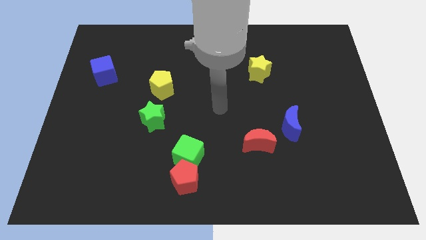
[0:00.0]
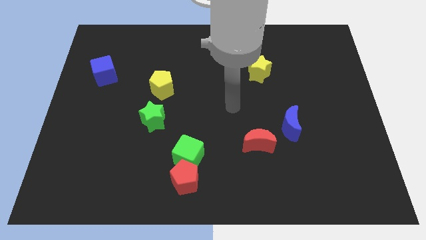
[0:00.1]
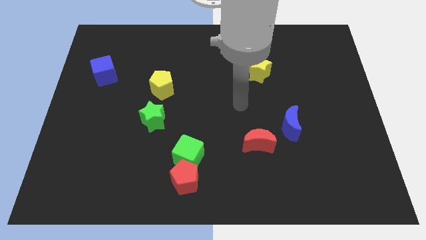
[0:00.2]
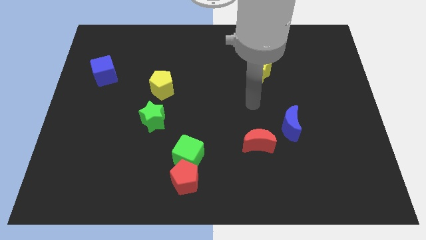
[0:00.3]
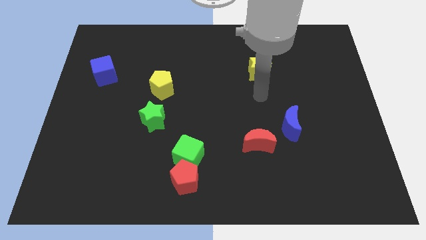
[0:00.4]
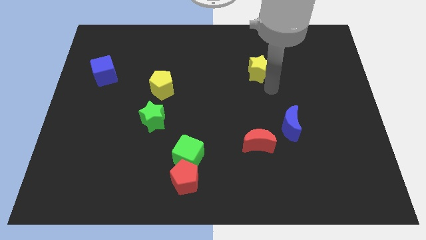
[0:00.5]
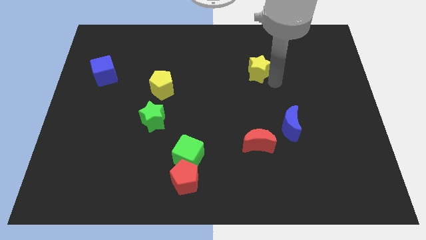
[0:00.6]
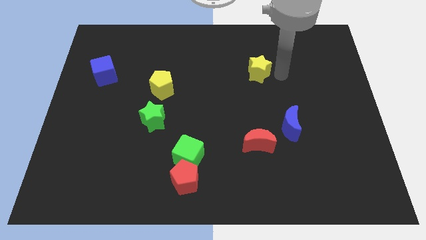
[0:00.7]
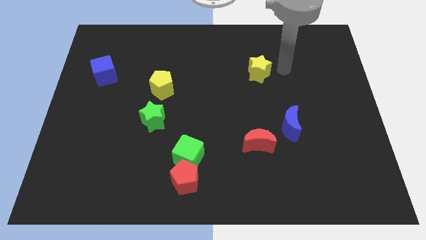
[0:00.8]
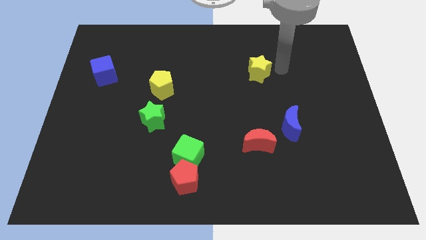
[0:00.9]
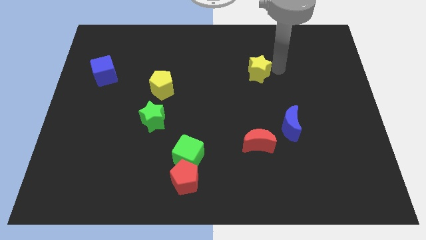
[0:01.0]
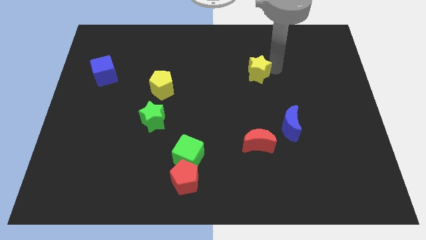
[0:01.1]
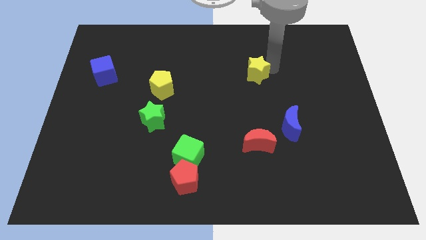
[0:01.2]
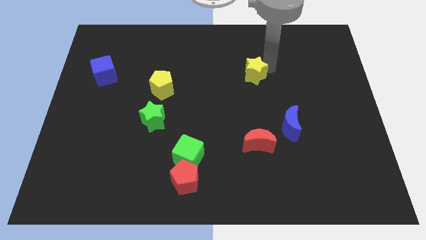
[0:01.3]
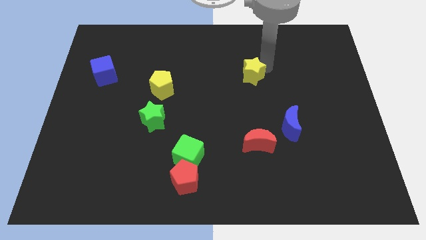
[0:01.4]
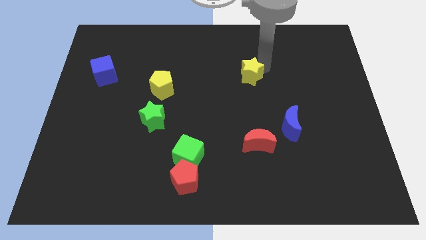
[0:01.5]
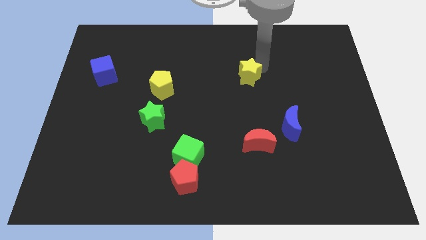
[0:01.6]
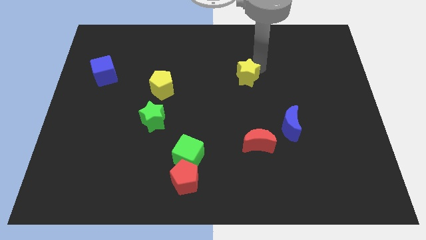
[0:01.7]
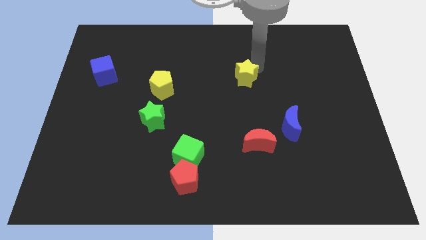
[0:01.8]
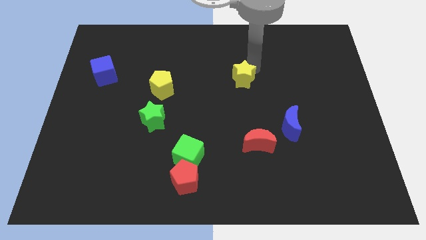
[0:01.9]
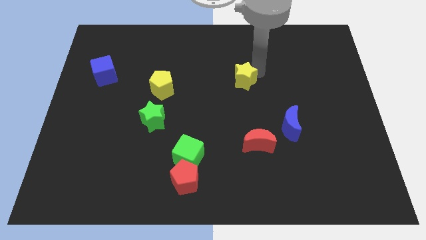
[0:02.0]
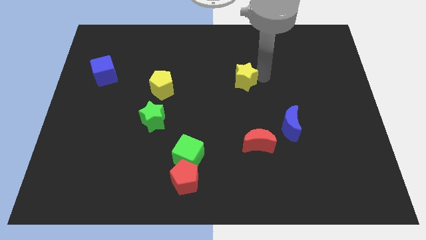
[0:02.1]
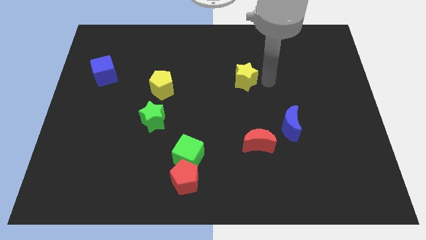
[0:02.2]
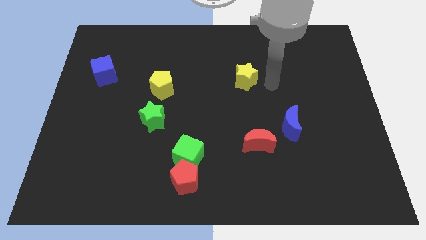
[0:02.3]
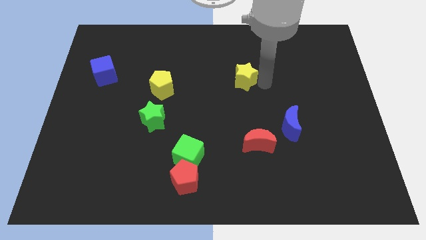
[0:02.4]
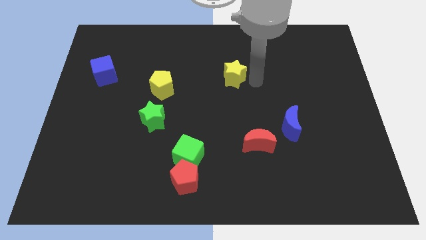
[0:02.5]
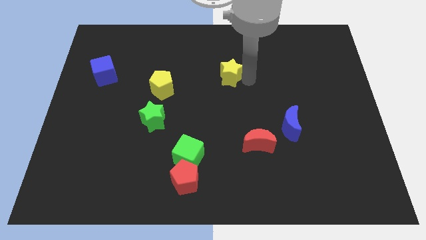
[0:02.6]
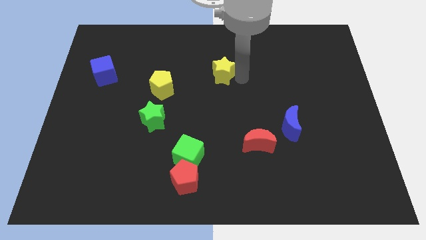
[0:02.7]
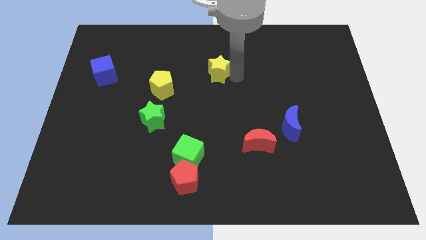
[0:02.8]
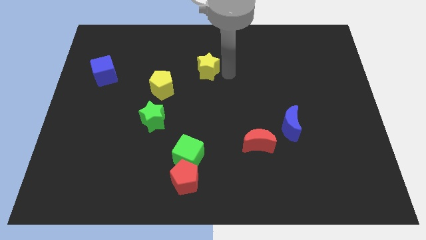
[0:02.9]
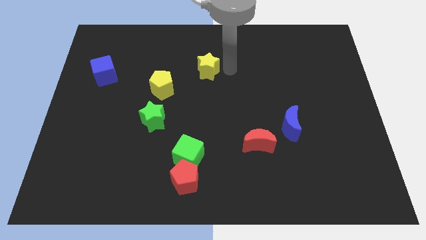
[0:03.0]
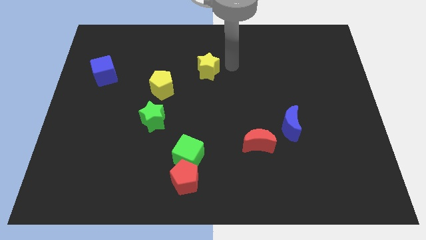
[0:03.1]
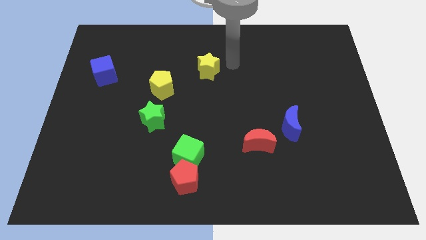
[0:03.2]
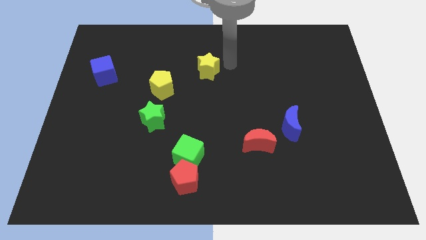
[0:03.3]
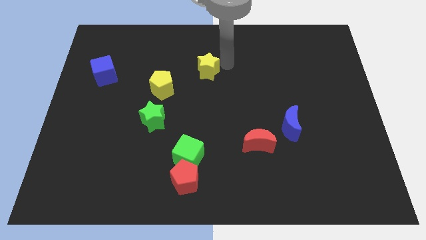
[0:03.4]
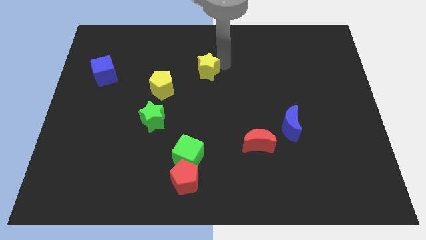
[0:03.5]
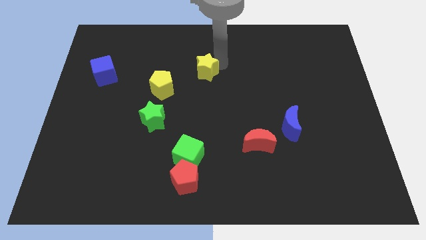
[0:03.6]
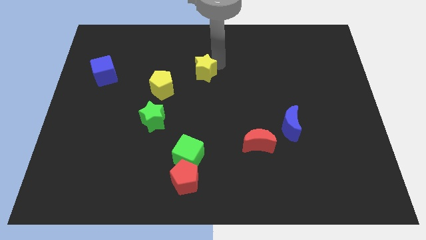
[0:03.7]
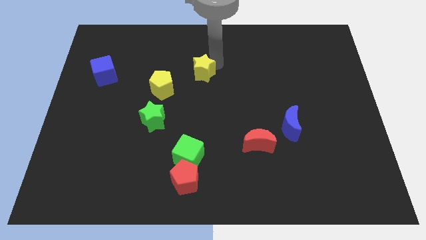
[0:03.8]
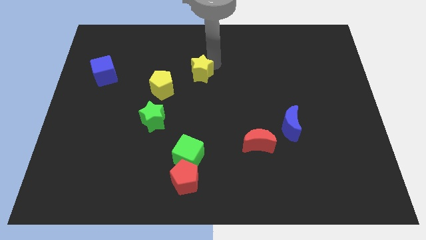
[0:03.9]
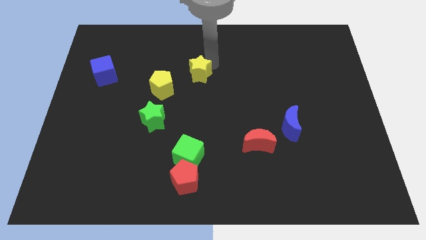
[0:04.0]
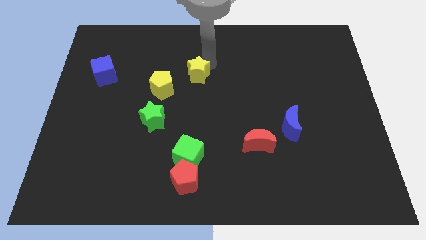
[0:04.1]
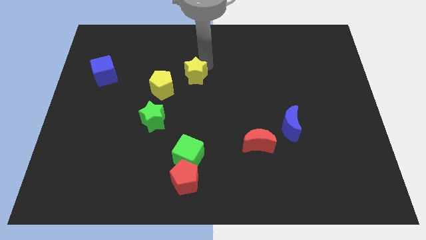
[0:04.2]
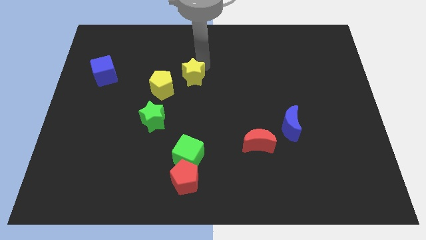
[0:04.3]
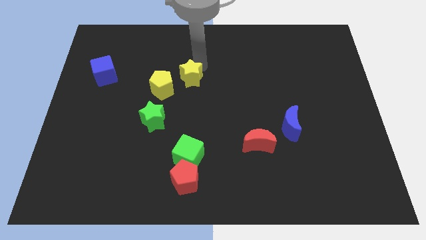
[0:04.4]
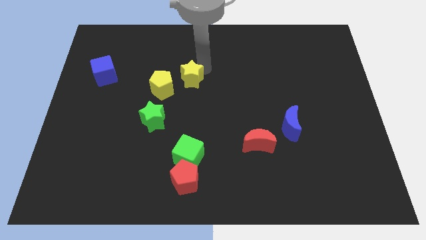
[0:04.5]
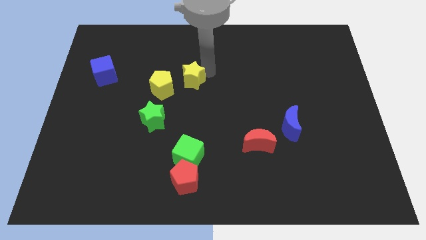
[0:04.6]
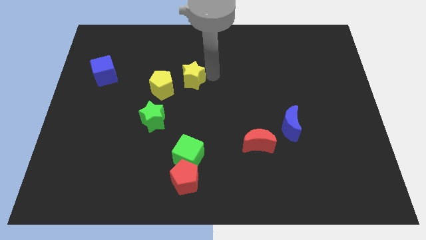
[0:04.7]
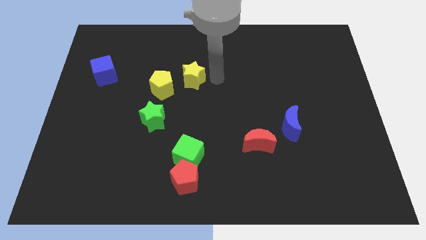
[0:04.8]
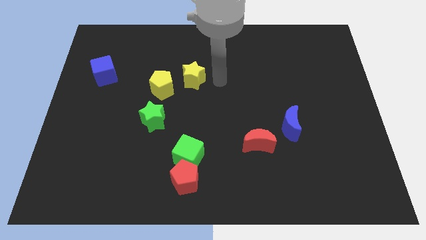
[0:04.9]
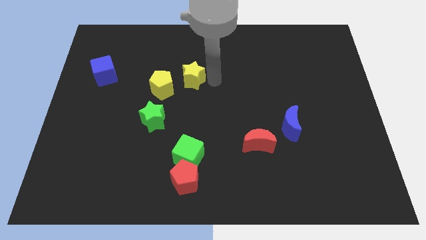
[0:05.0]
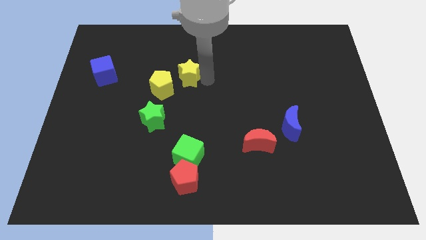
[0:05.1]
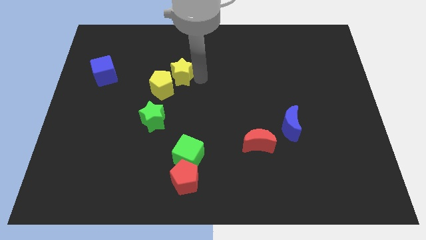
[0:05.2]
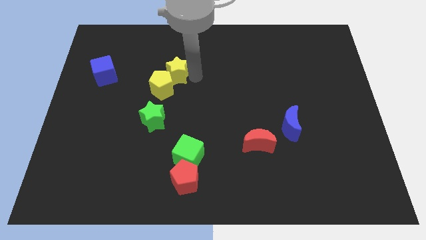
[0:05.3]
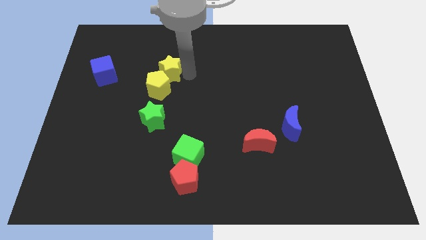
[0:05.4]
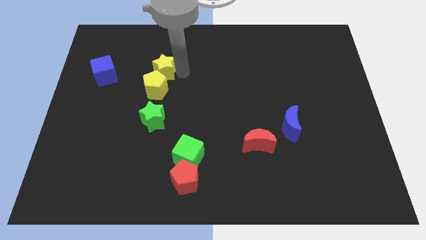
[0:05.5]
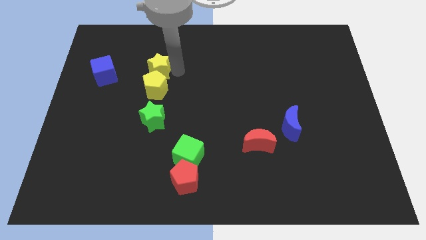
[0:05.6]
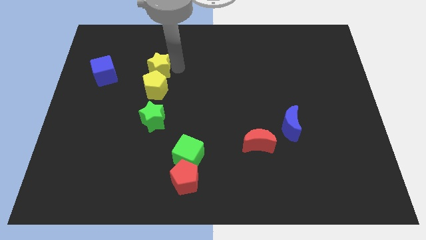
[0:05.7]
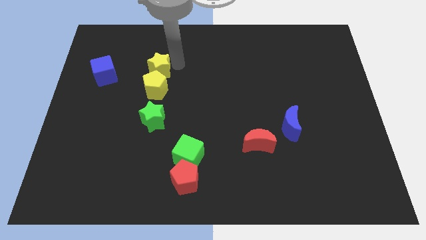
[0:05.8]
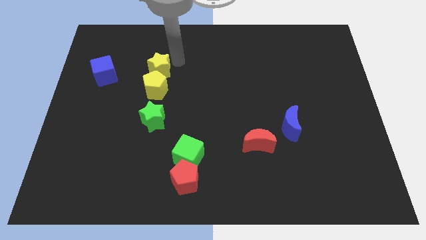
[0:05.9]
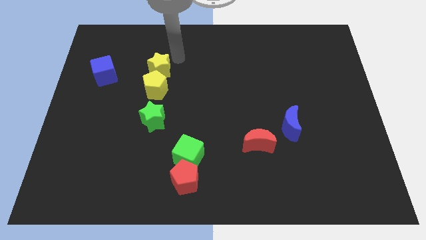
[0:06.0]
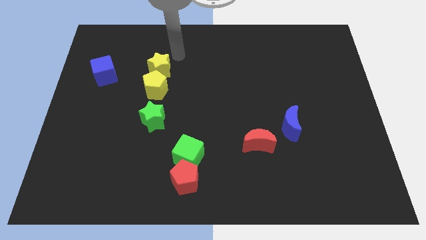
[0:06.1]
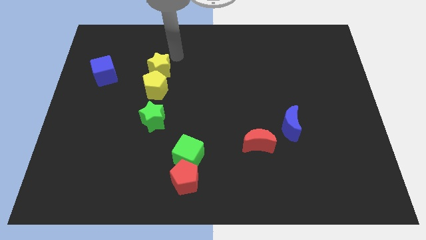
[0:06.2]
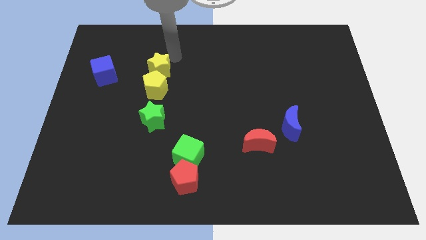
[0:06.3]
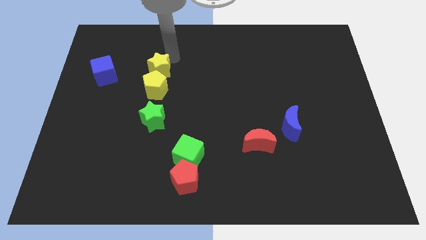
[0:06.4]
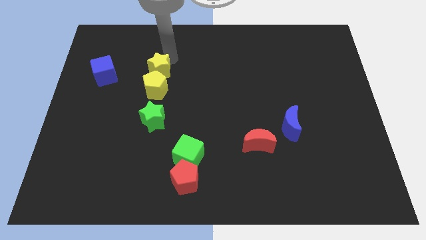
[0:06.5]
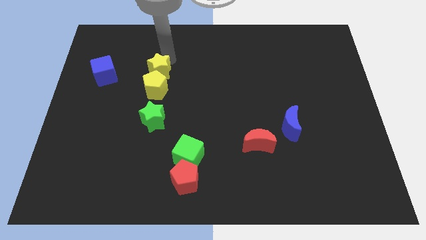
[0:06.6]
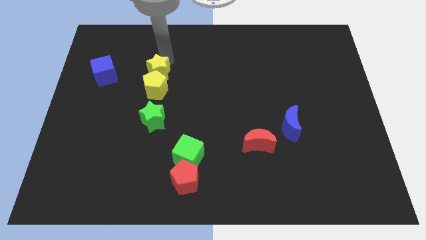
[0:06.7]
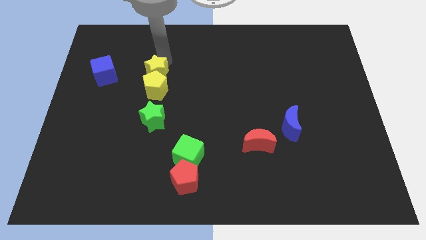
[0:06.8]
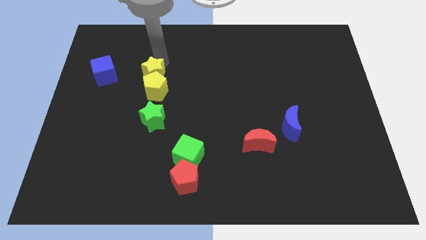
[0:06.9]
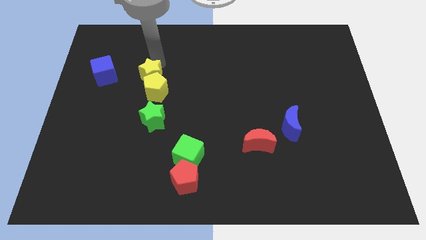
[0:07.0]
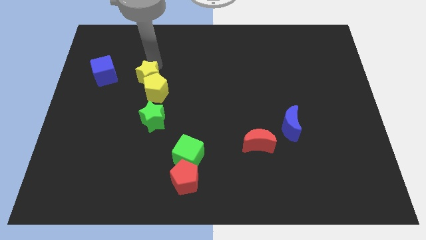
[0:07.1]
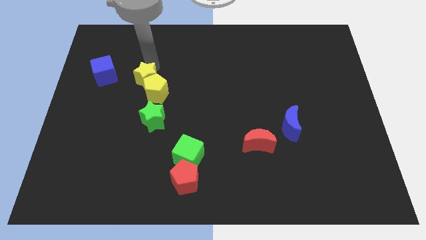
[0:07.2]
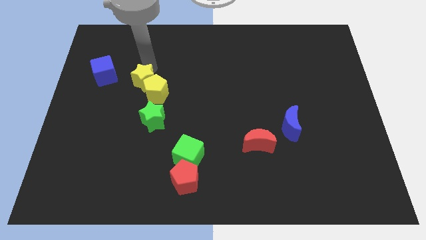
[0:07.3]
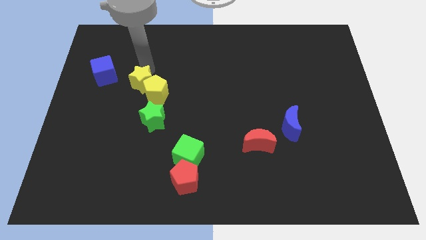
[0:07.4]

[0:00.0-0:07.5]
push the yellow star diagonally down and to the right of the blue cube
